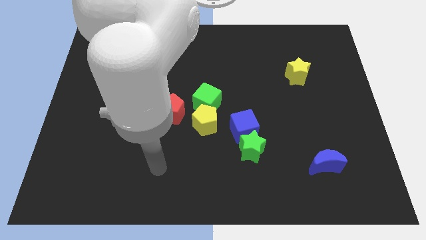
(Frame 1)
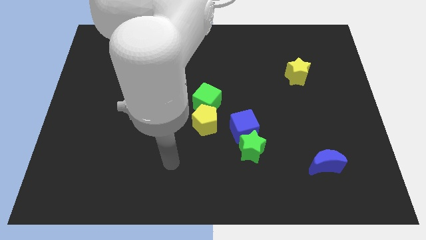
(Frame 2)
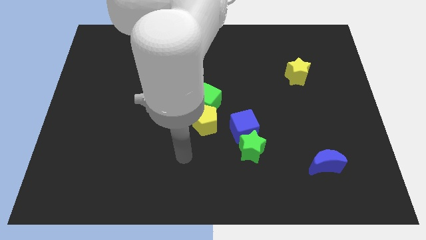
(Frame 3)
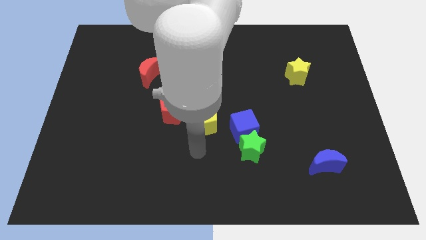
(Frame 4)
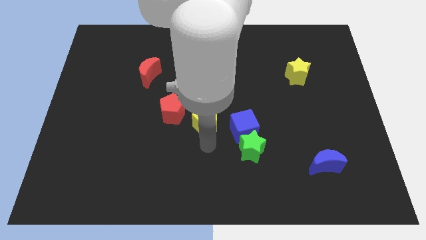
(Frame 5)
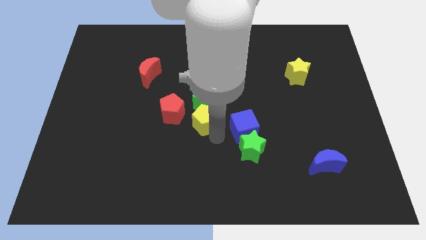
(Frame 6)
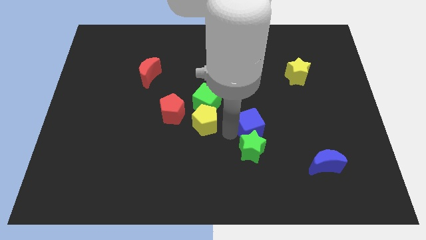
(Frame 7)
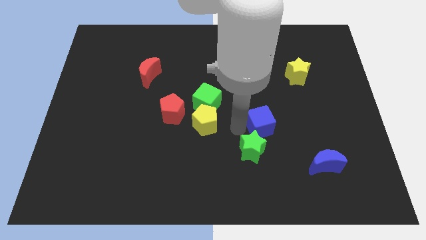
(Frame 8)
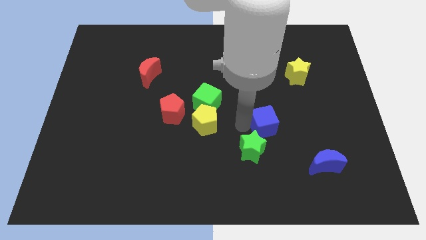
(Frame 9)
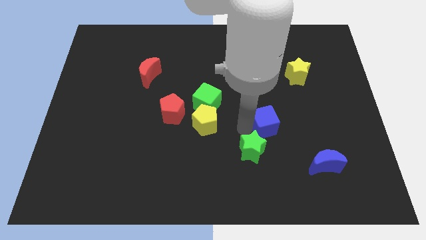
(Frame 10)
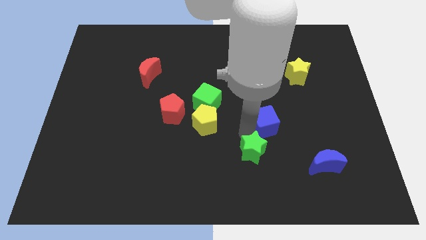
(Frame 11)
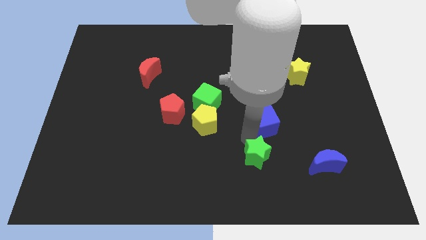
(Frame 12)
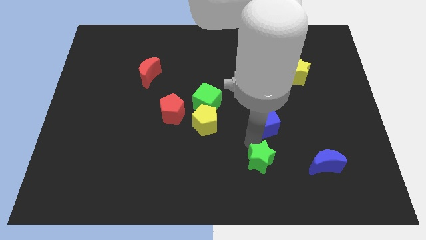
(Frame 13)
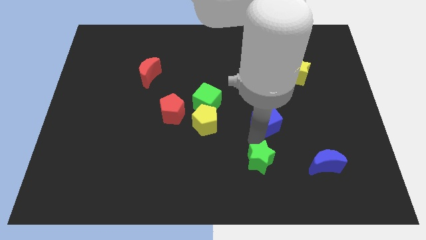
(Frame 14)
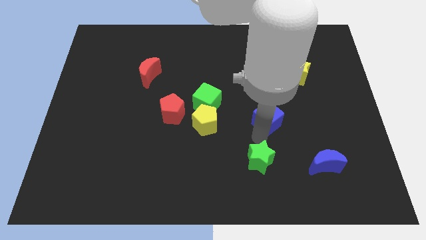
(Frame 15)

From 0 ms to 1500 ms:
separate the green star from the blue cube

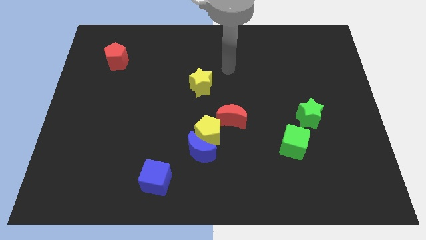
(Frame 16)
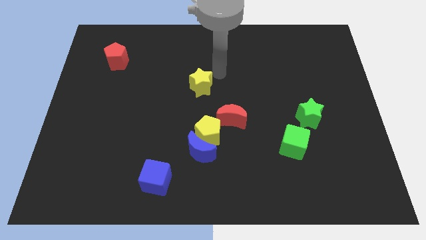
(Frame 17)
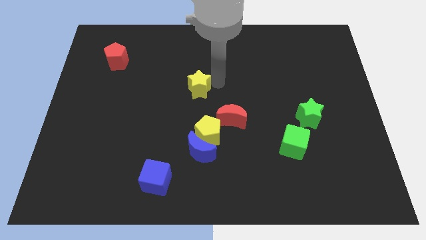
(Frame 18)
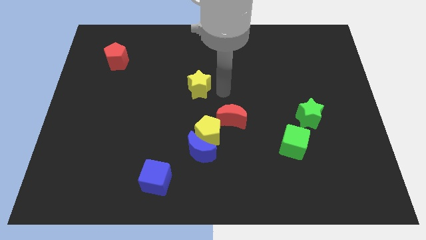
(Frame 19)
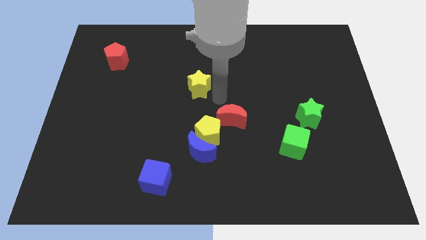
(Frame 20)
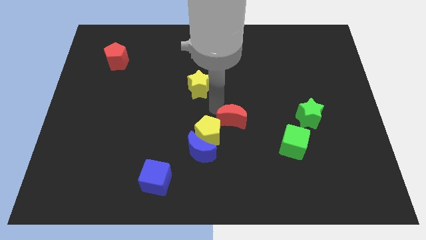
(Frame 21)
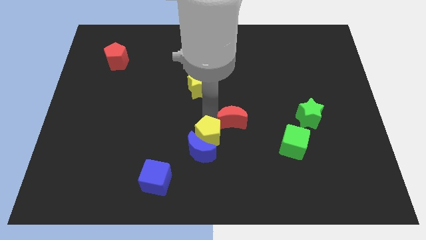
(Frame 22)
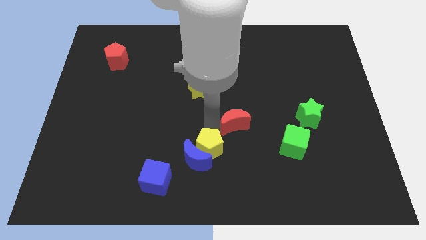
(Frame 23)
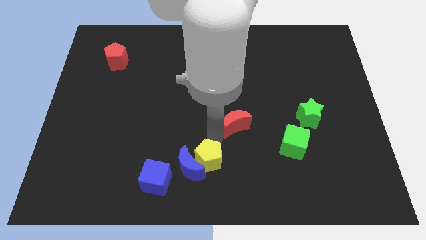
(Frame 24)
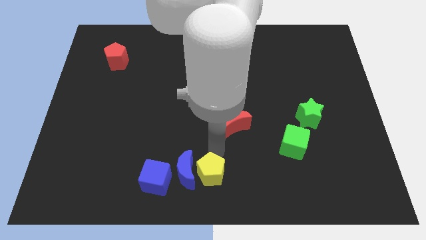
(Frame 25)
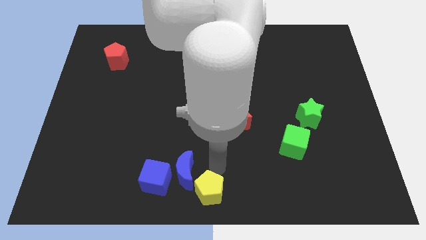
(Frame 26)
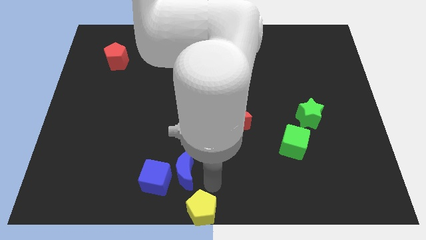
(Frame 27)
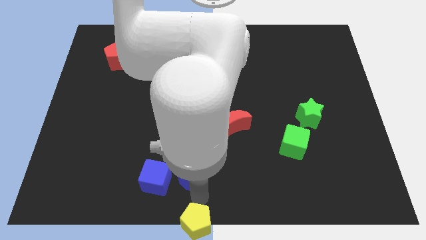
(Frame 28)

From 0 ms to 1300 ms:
pull the blue moon apart from the yellow pentagon

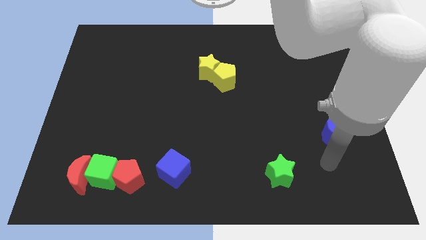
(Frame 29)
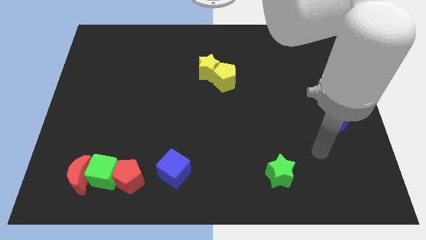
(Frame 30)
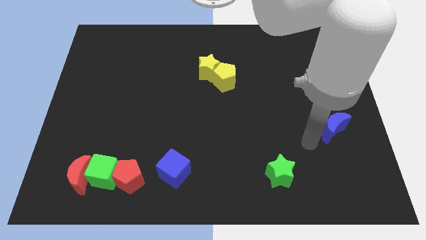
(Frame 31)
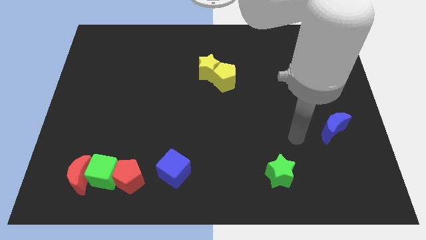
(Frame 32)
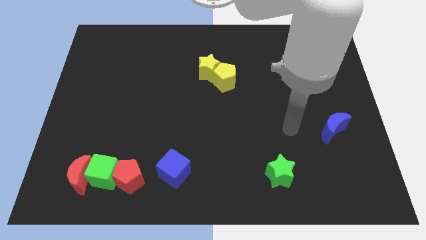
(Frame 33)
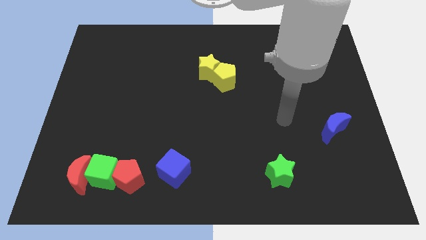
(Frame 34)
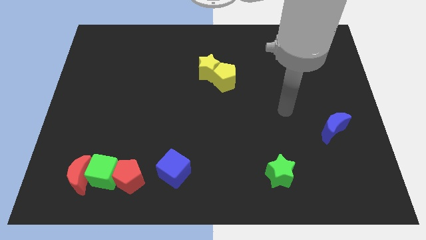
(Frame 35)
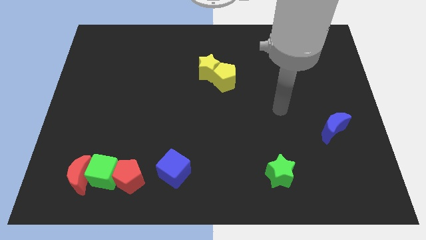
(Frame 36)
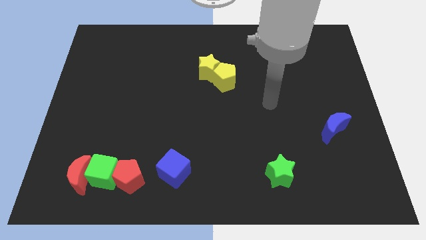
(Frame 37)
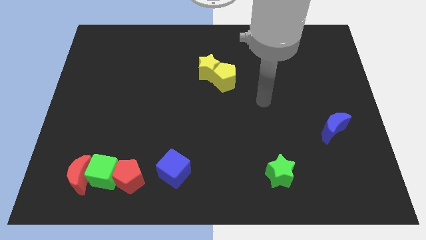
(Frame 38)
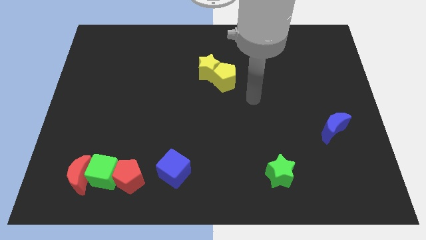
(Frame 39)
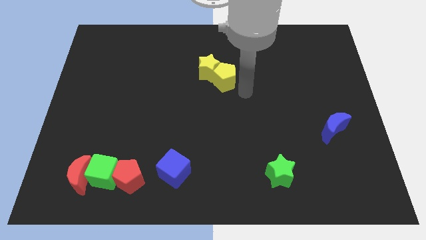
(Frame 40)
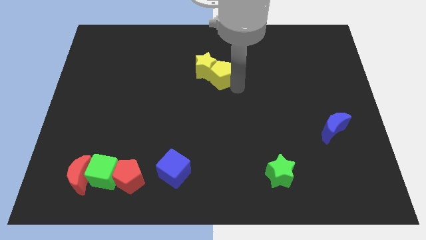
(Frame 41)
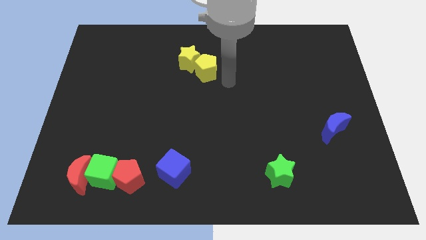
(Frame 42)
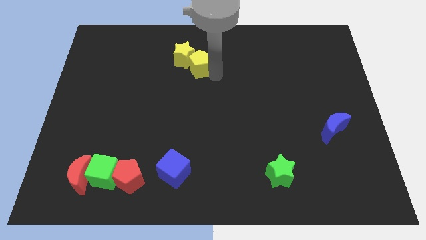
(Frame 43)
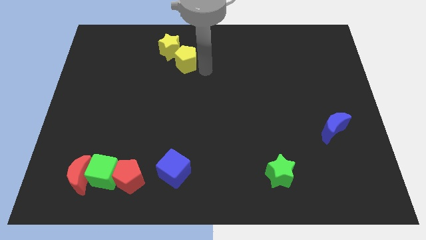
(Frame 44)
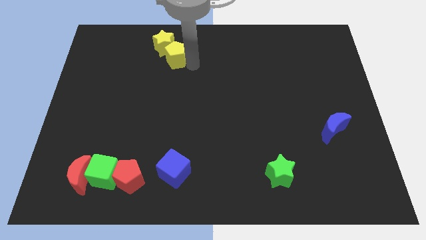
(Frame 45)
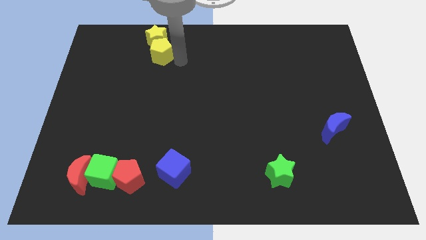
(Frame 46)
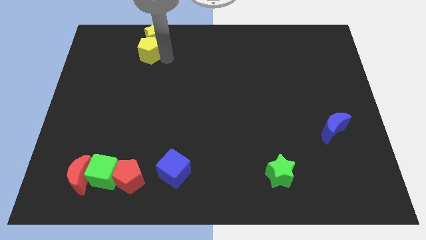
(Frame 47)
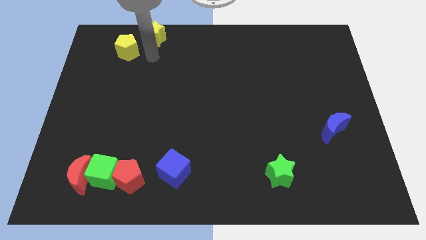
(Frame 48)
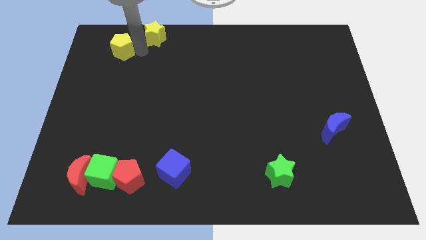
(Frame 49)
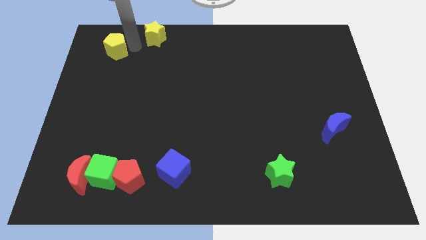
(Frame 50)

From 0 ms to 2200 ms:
separate the yellow star from the yellow pentagon

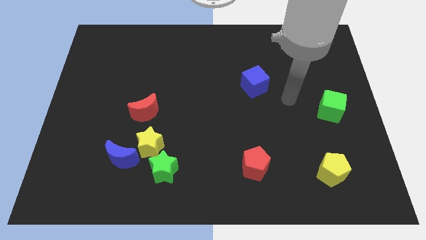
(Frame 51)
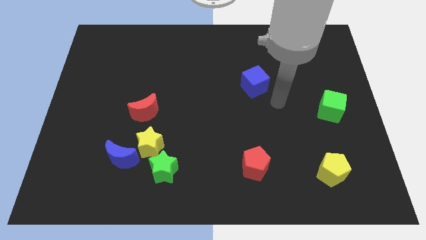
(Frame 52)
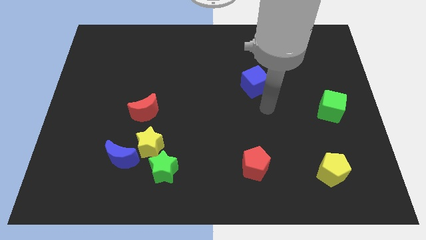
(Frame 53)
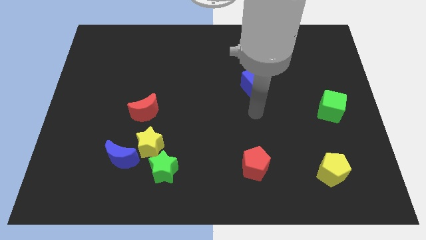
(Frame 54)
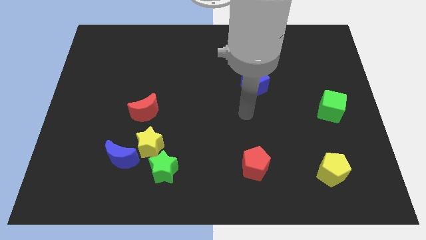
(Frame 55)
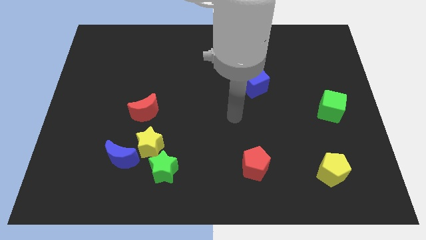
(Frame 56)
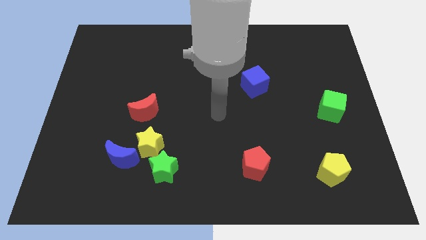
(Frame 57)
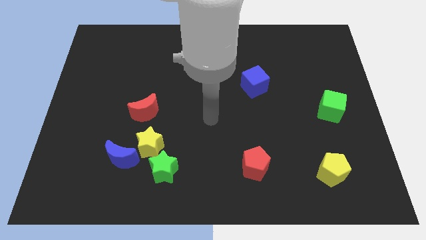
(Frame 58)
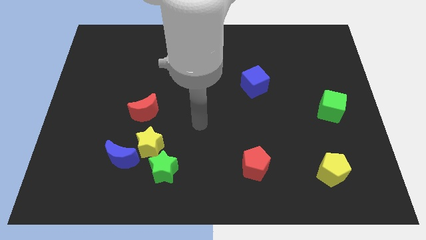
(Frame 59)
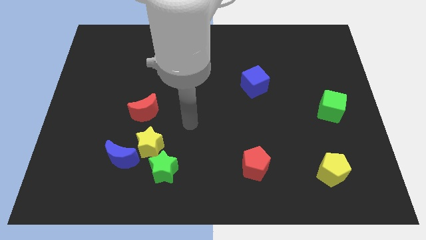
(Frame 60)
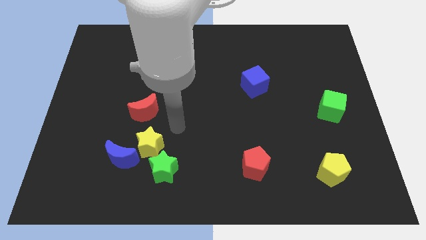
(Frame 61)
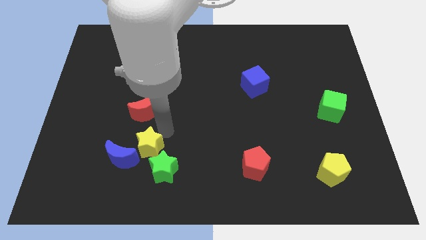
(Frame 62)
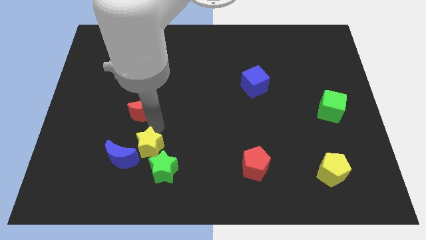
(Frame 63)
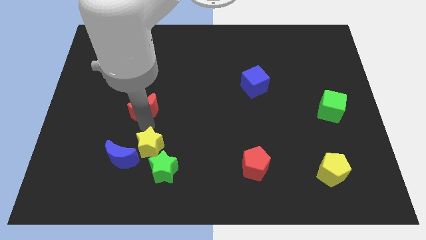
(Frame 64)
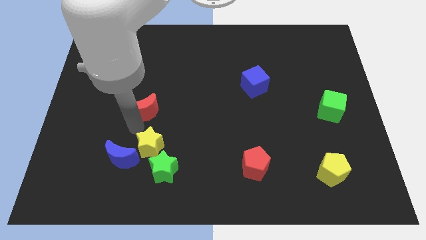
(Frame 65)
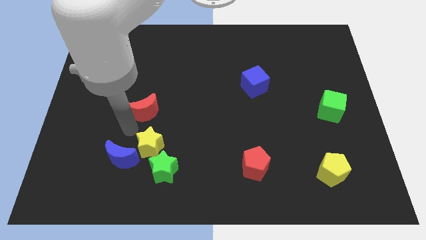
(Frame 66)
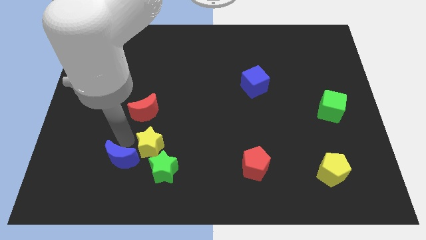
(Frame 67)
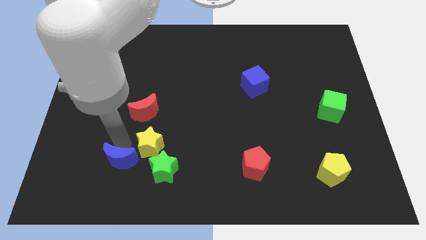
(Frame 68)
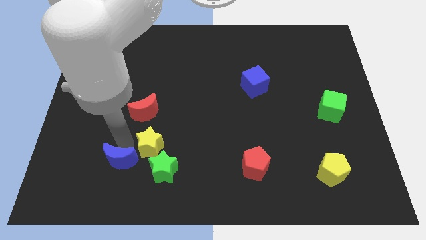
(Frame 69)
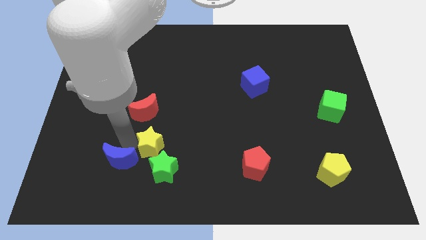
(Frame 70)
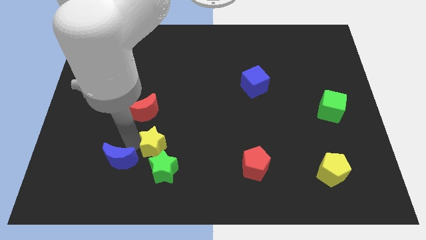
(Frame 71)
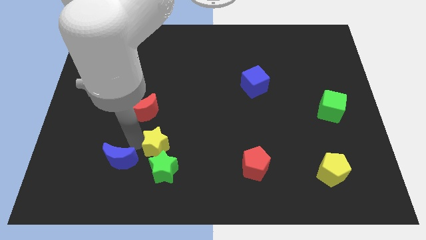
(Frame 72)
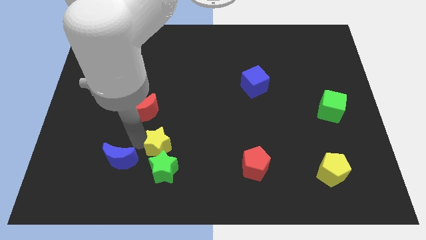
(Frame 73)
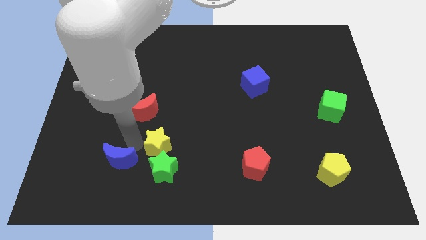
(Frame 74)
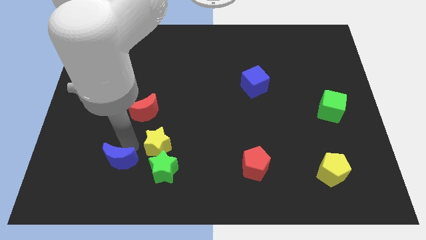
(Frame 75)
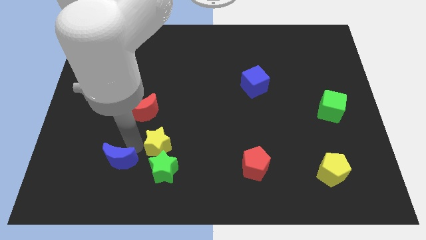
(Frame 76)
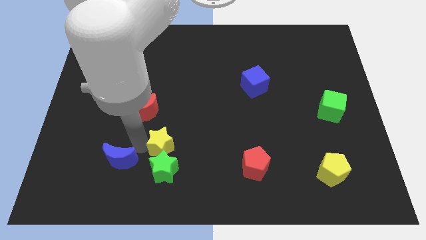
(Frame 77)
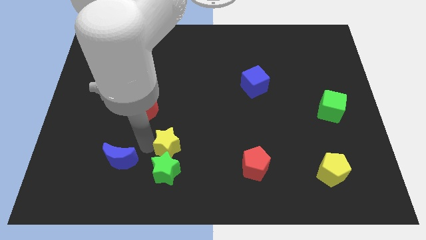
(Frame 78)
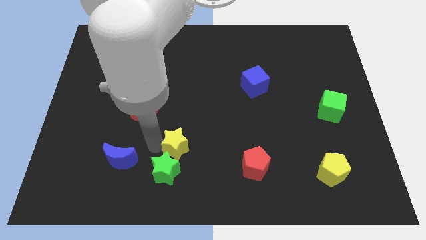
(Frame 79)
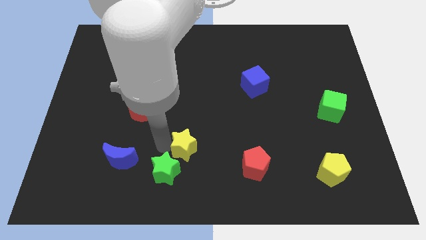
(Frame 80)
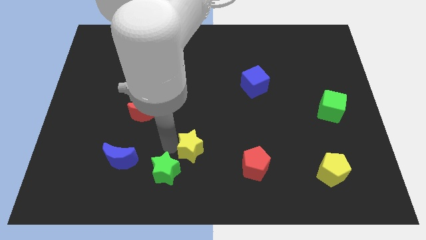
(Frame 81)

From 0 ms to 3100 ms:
separate the yellow star from the clump

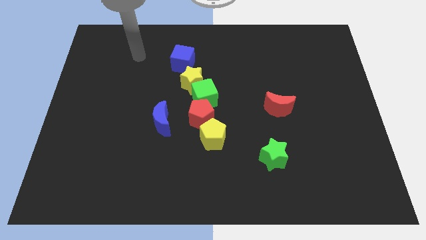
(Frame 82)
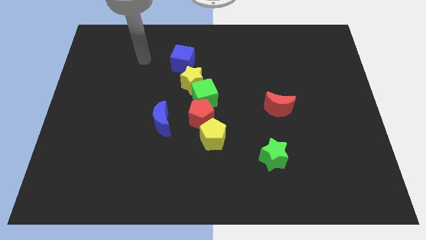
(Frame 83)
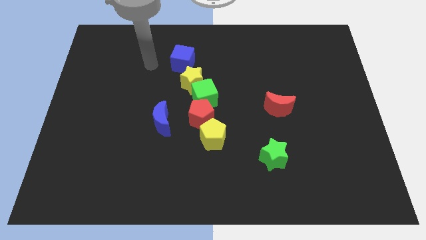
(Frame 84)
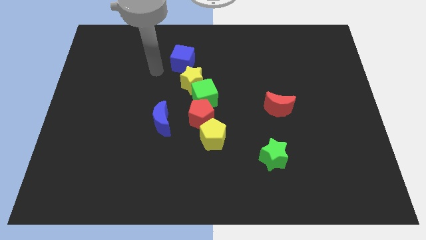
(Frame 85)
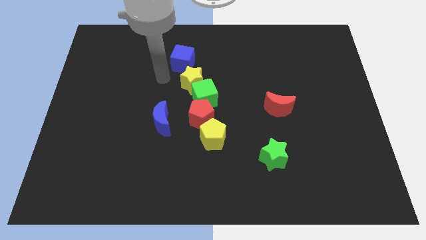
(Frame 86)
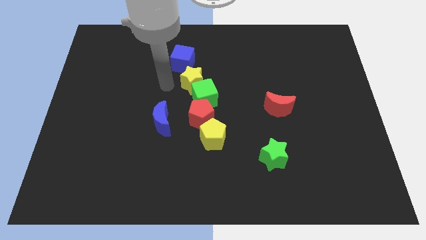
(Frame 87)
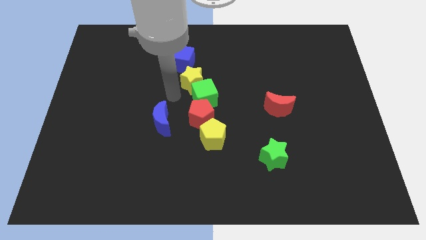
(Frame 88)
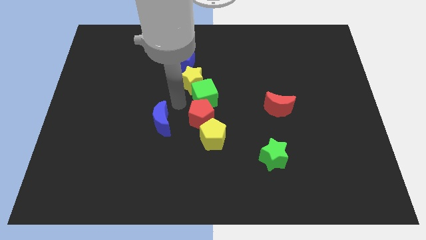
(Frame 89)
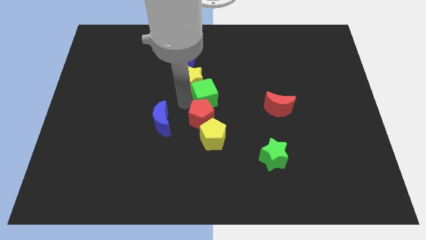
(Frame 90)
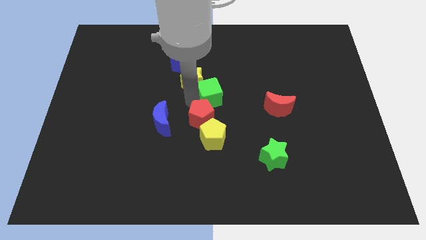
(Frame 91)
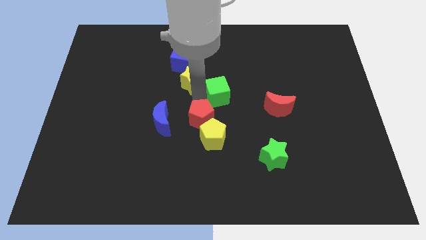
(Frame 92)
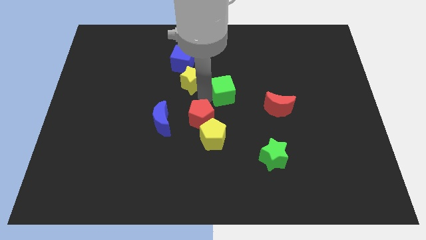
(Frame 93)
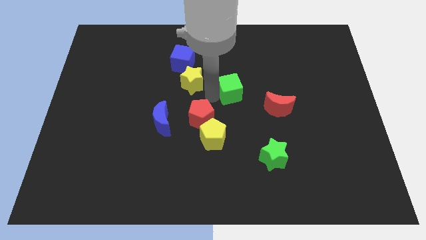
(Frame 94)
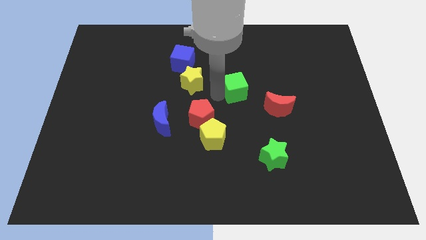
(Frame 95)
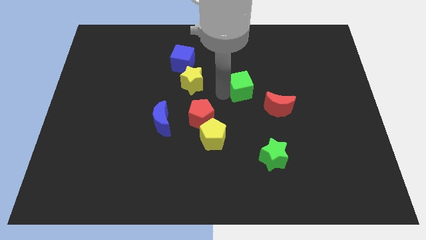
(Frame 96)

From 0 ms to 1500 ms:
move the green cube away from the yellow star and red pentagon
